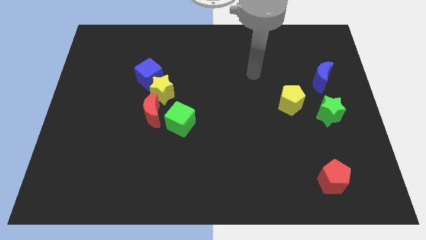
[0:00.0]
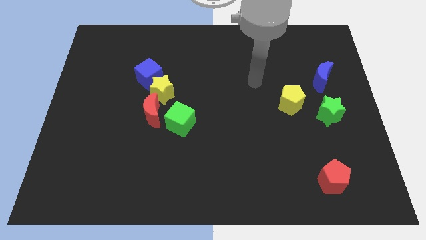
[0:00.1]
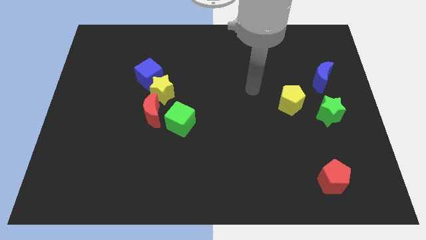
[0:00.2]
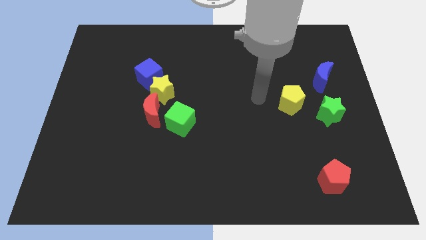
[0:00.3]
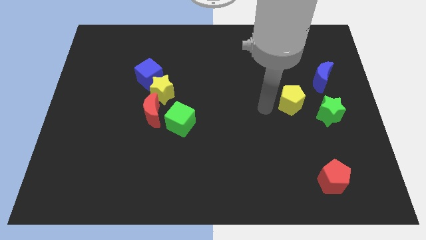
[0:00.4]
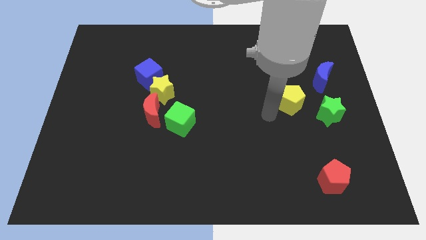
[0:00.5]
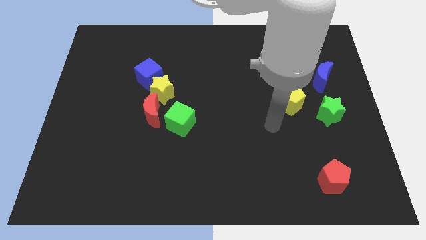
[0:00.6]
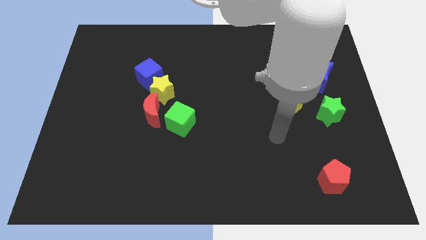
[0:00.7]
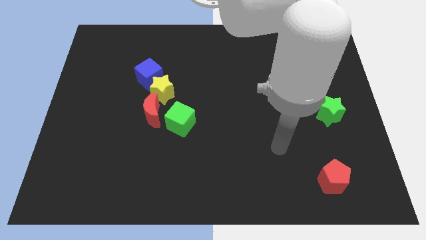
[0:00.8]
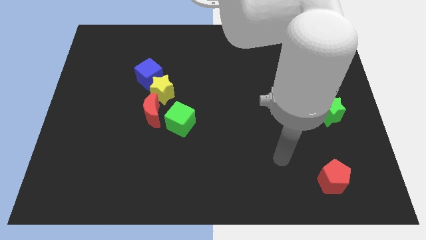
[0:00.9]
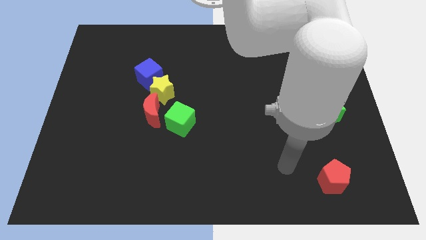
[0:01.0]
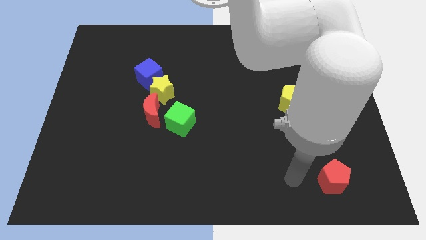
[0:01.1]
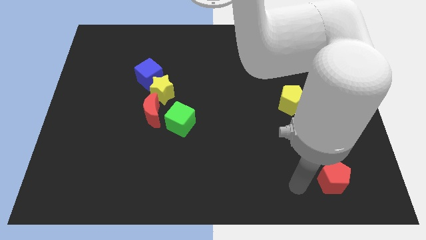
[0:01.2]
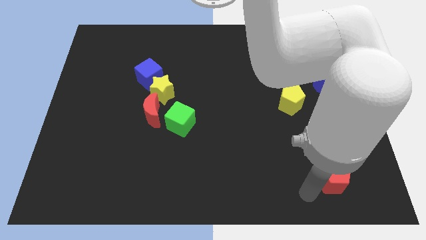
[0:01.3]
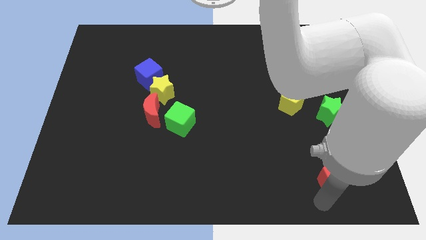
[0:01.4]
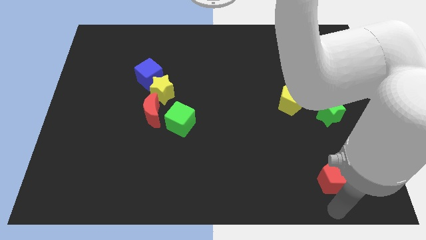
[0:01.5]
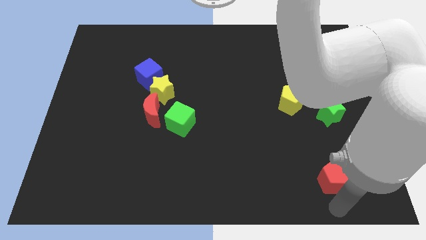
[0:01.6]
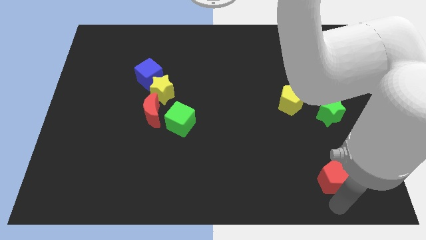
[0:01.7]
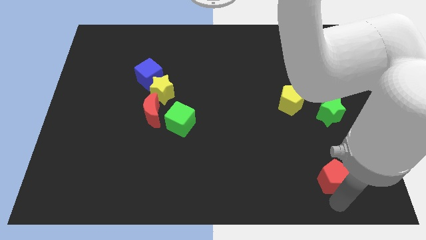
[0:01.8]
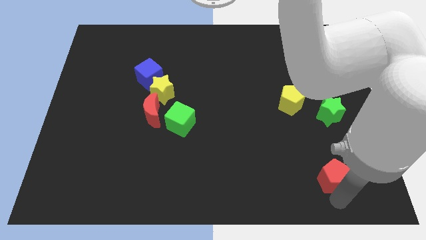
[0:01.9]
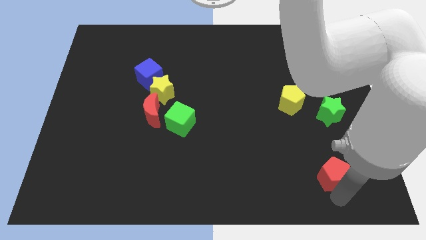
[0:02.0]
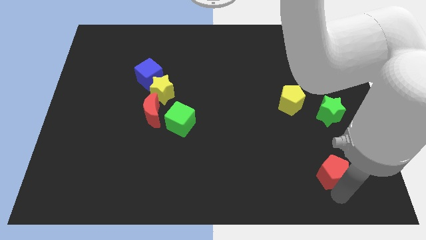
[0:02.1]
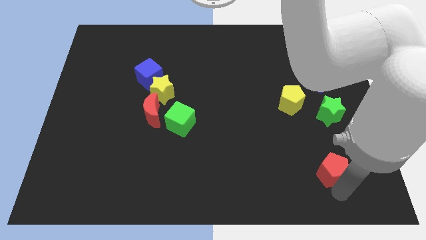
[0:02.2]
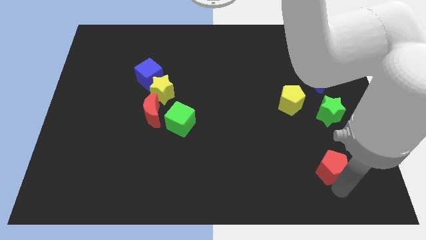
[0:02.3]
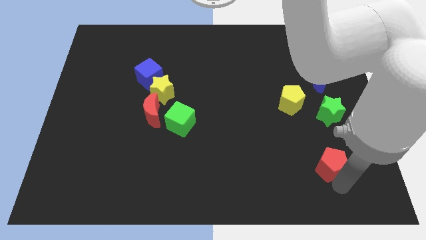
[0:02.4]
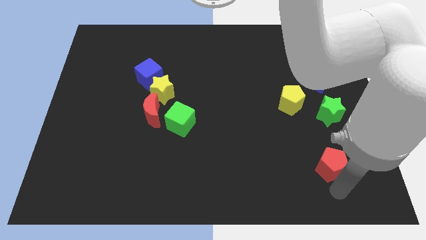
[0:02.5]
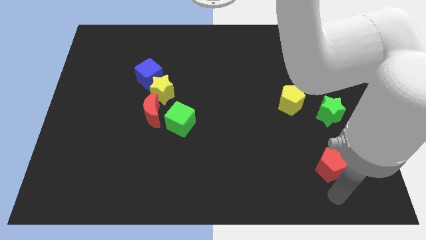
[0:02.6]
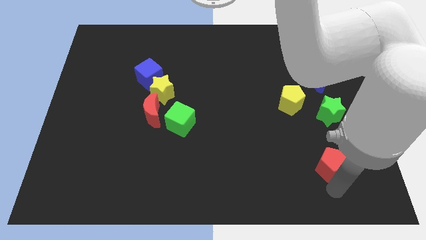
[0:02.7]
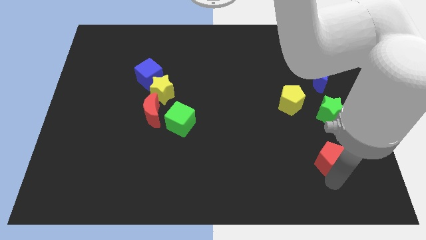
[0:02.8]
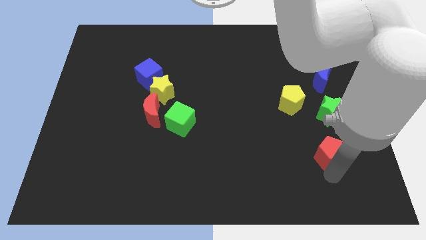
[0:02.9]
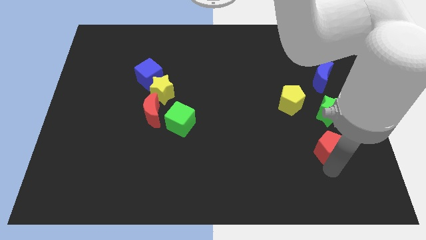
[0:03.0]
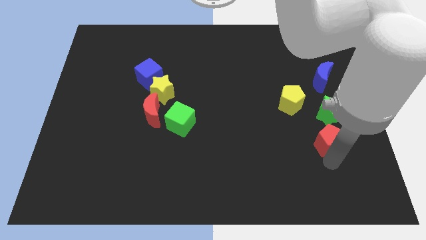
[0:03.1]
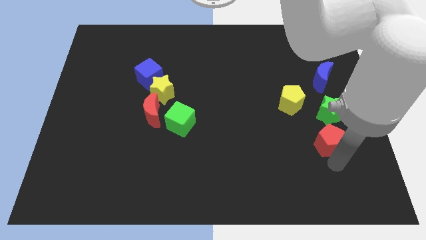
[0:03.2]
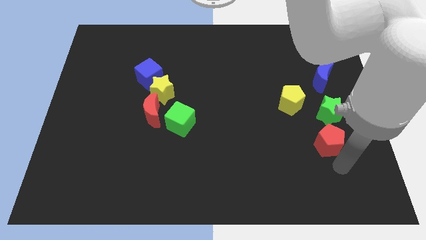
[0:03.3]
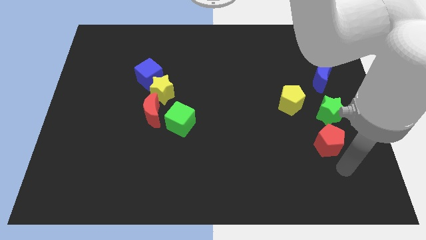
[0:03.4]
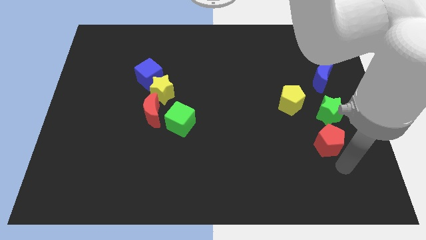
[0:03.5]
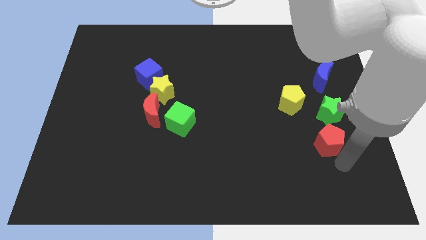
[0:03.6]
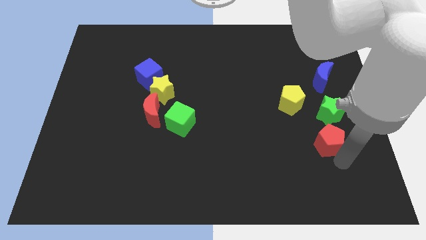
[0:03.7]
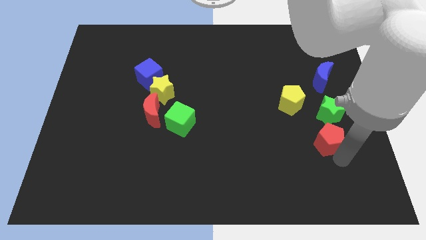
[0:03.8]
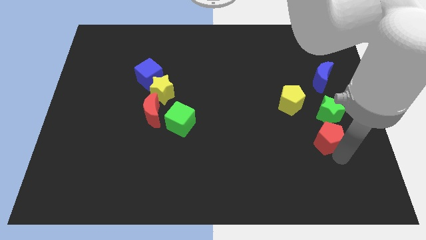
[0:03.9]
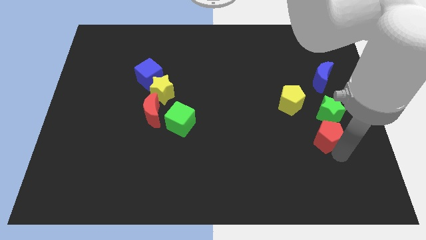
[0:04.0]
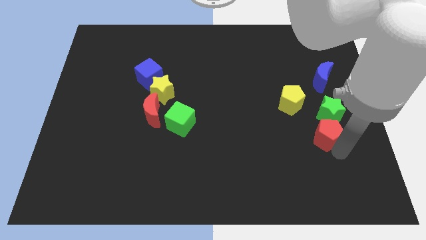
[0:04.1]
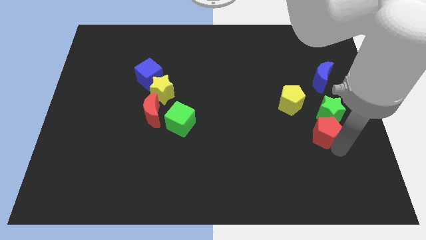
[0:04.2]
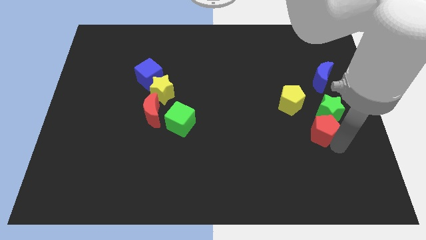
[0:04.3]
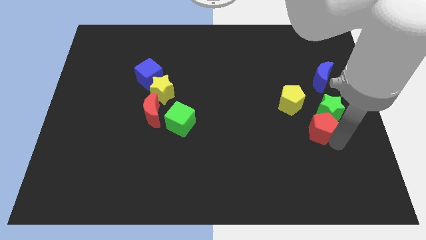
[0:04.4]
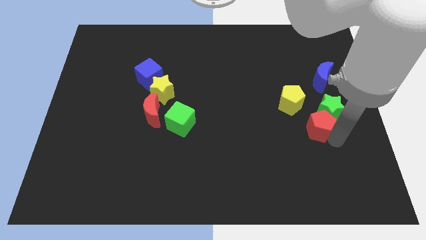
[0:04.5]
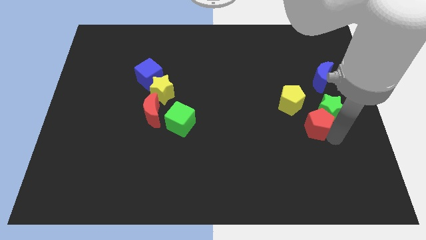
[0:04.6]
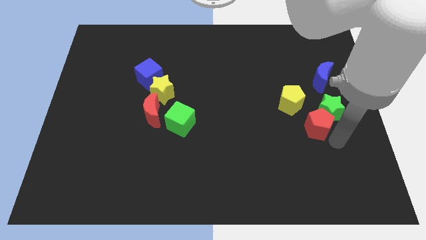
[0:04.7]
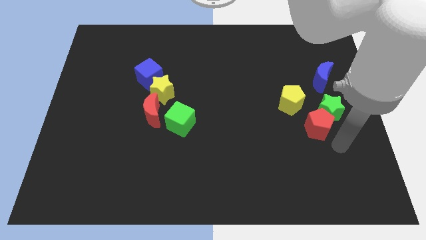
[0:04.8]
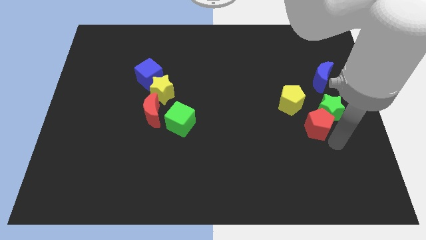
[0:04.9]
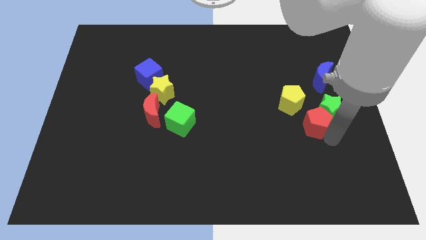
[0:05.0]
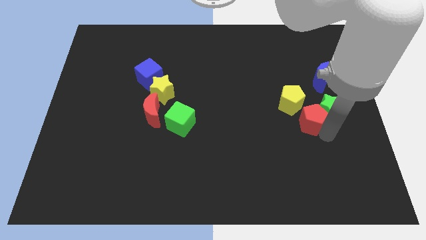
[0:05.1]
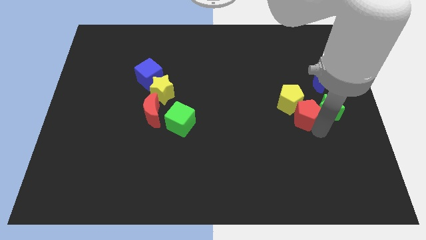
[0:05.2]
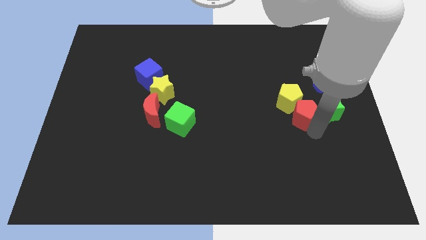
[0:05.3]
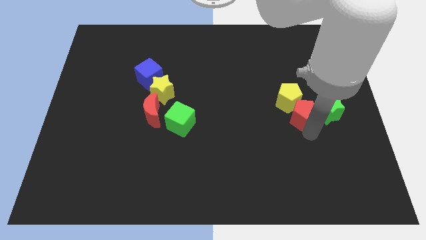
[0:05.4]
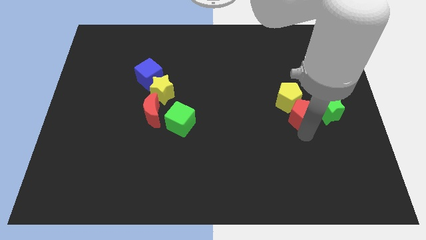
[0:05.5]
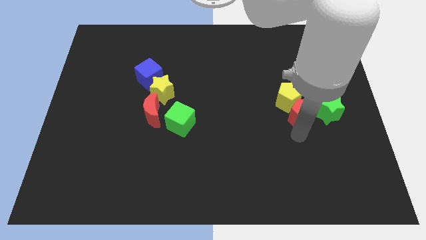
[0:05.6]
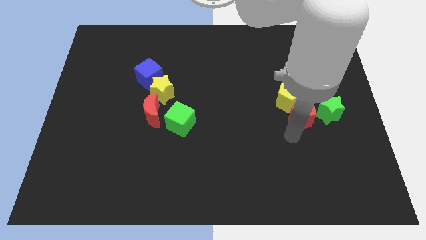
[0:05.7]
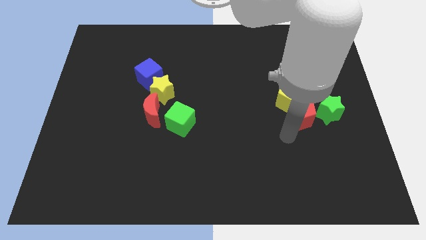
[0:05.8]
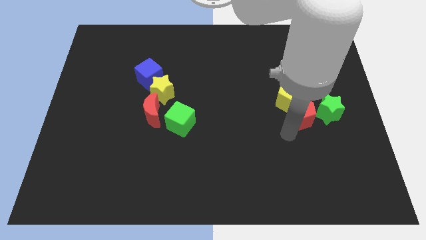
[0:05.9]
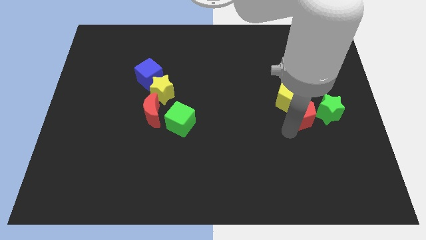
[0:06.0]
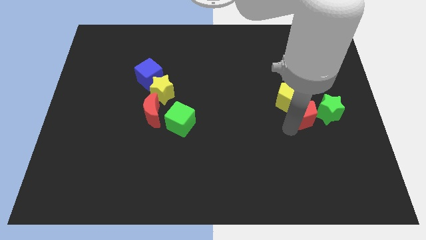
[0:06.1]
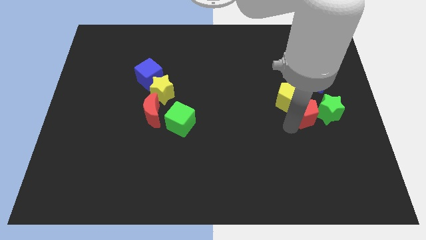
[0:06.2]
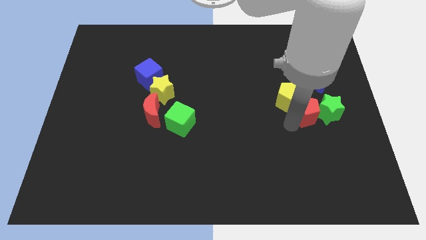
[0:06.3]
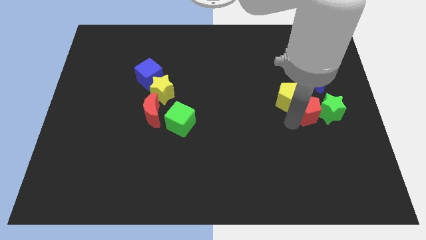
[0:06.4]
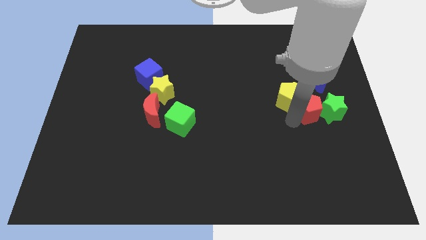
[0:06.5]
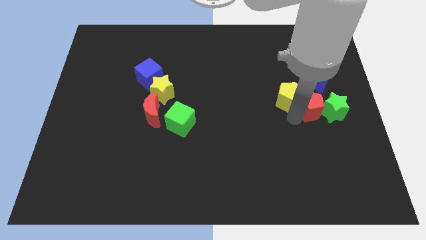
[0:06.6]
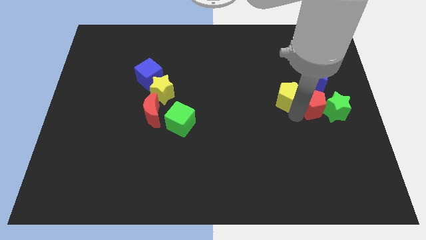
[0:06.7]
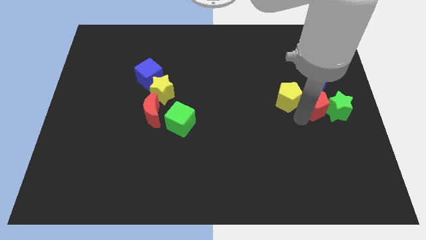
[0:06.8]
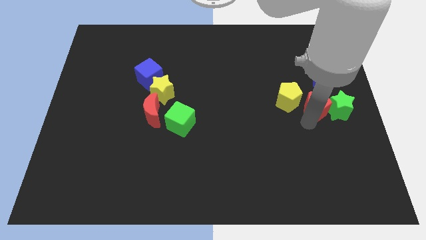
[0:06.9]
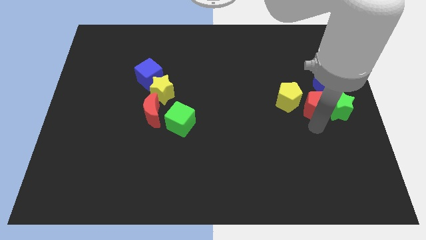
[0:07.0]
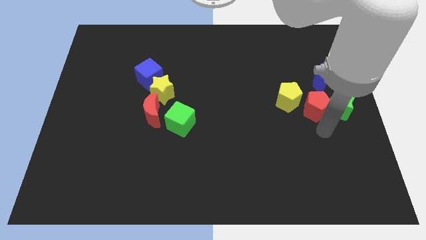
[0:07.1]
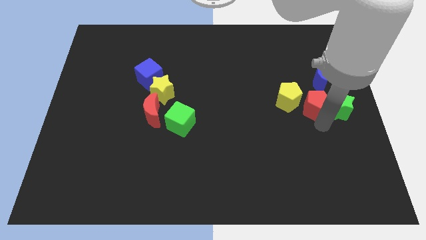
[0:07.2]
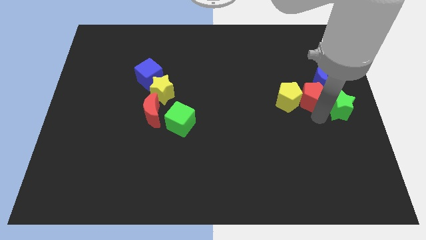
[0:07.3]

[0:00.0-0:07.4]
move the red pentagon up

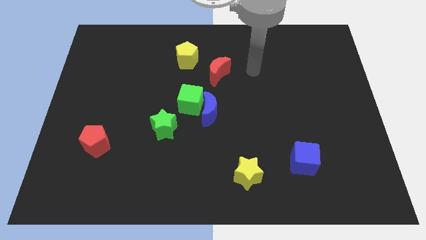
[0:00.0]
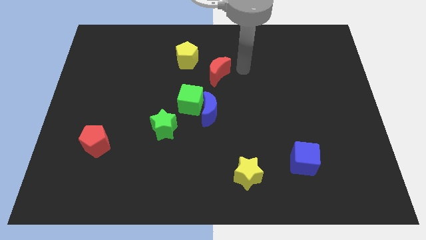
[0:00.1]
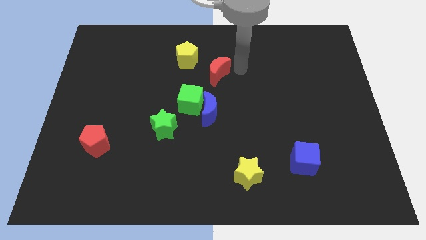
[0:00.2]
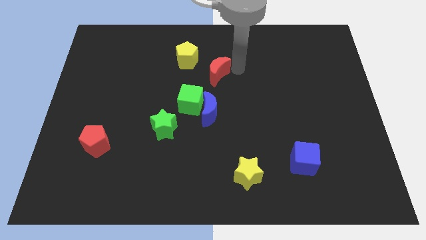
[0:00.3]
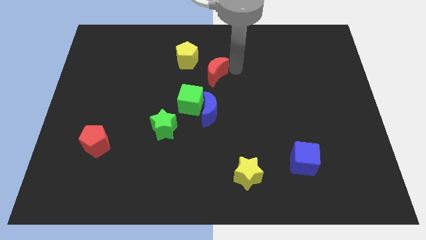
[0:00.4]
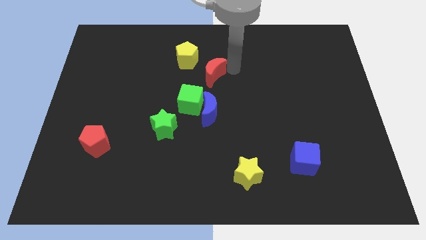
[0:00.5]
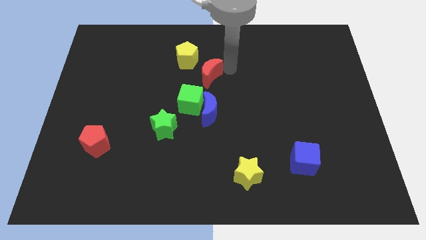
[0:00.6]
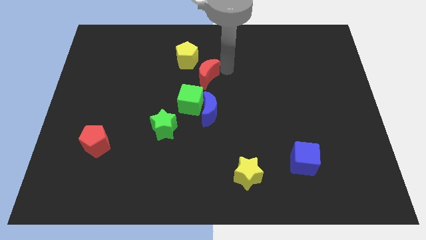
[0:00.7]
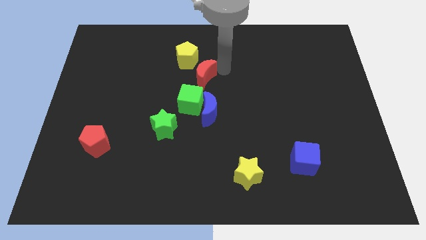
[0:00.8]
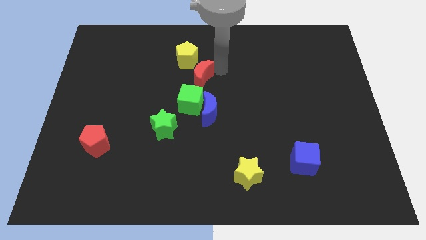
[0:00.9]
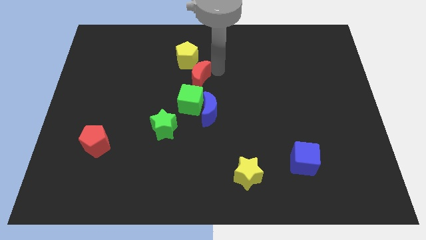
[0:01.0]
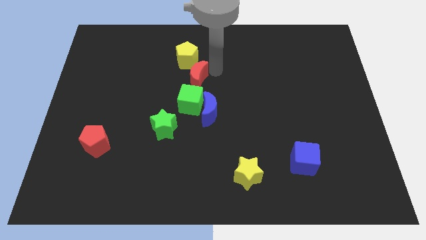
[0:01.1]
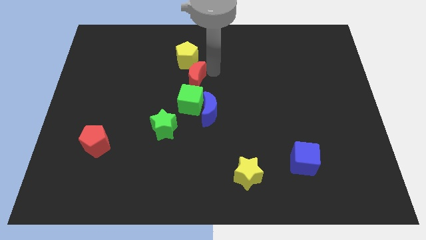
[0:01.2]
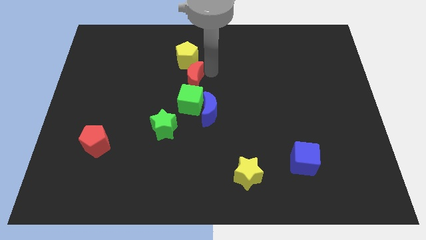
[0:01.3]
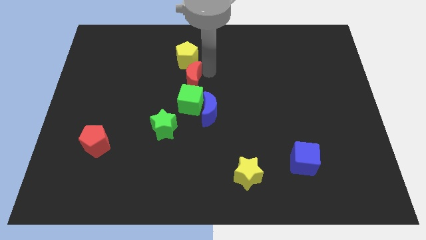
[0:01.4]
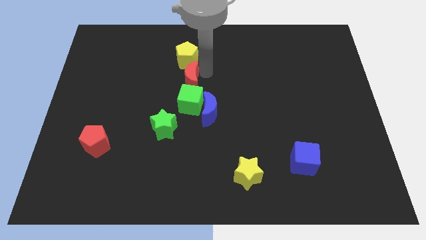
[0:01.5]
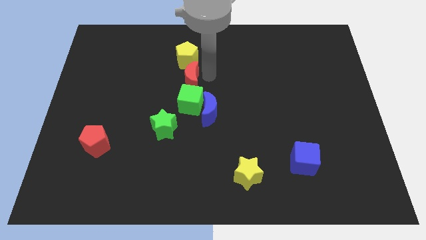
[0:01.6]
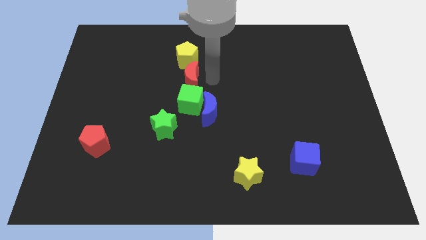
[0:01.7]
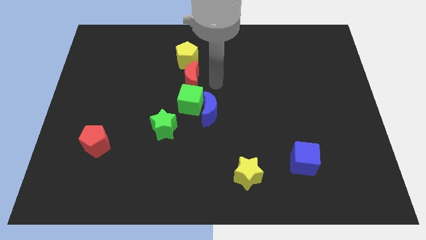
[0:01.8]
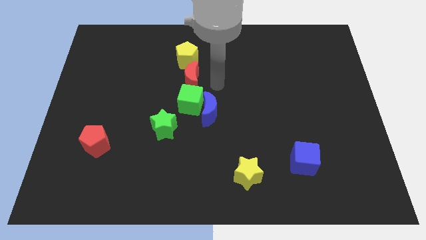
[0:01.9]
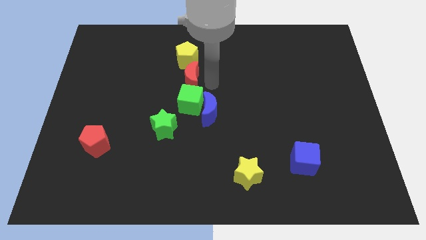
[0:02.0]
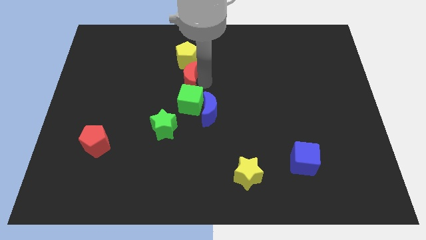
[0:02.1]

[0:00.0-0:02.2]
slide the red moon left slightly
